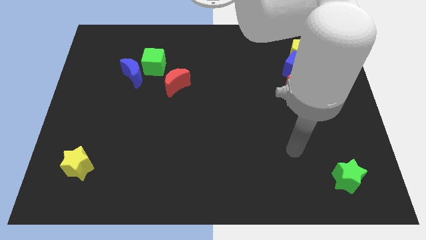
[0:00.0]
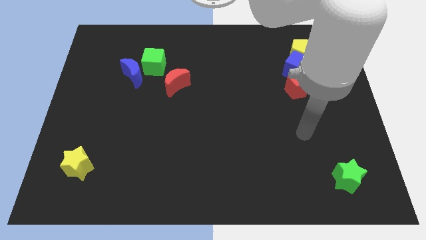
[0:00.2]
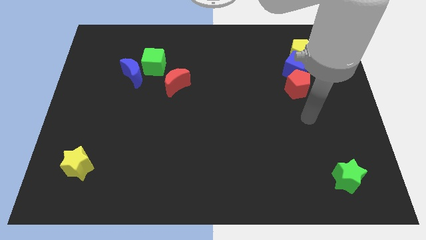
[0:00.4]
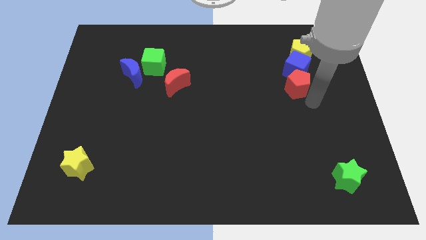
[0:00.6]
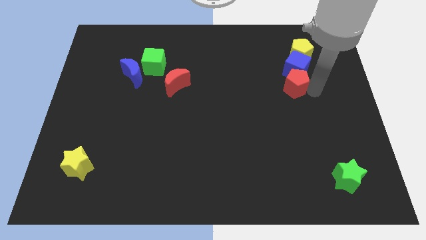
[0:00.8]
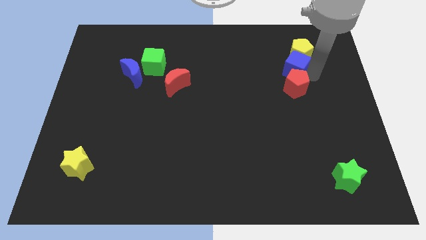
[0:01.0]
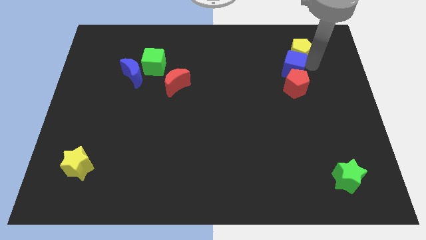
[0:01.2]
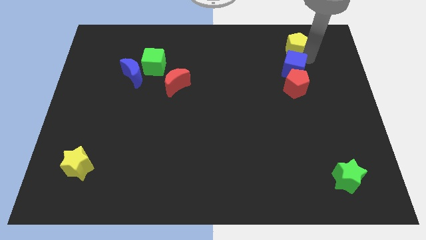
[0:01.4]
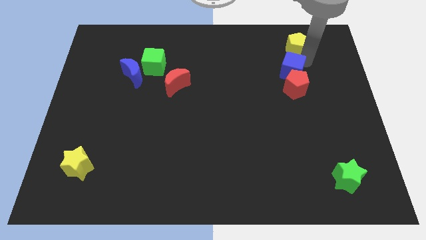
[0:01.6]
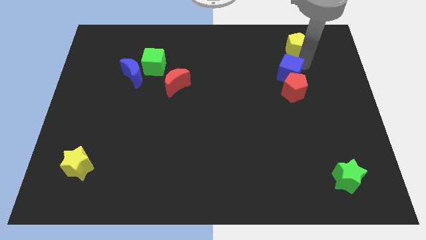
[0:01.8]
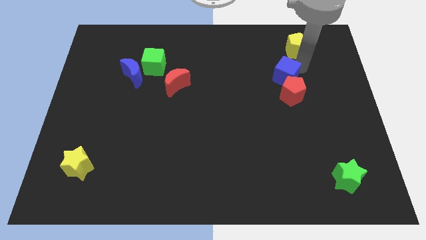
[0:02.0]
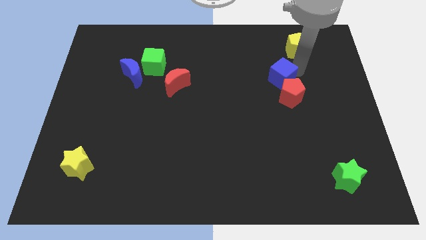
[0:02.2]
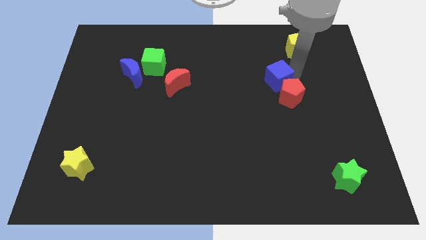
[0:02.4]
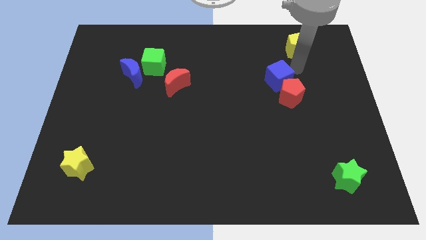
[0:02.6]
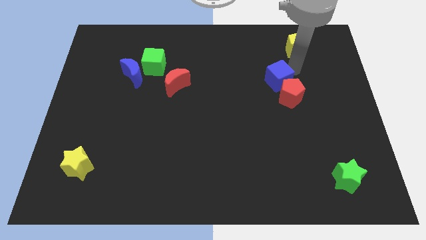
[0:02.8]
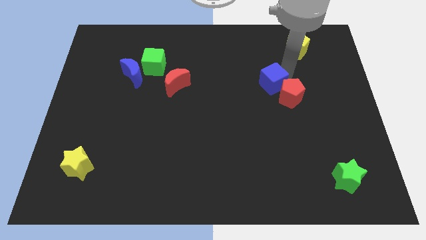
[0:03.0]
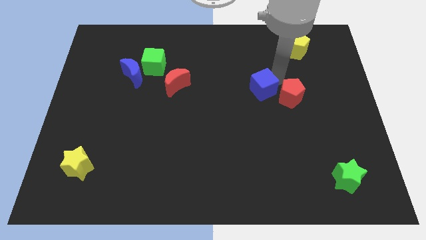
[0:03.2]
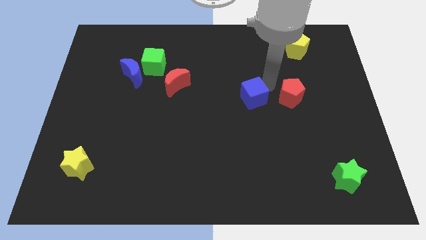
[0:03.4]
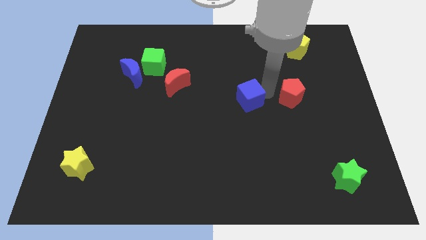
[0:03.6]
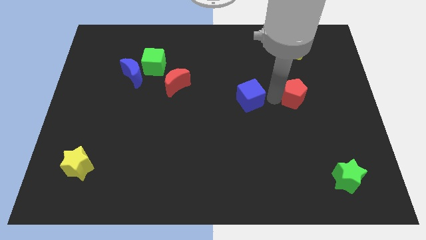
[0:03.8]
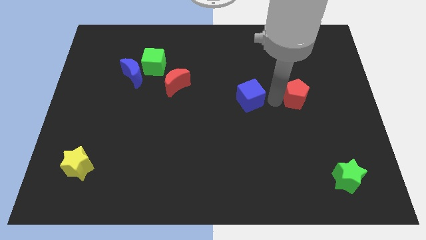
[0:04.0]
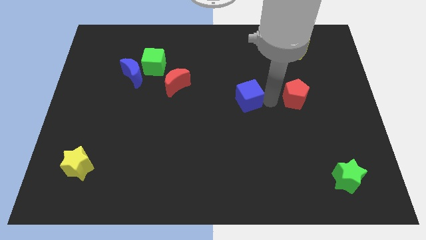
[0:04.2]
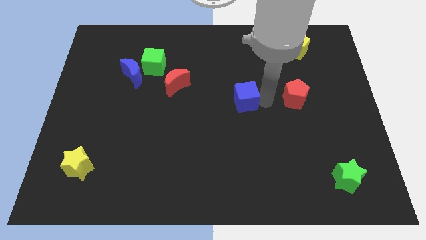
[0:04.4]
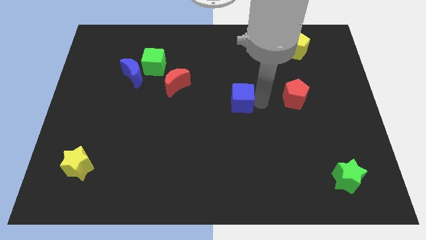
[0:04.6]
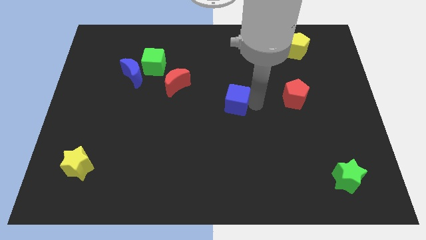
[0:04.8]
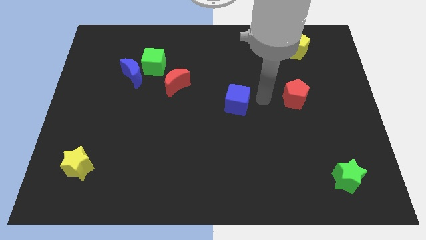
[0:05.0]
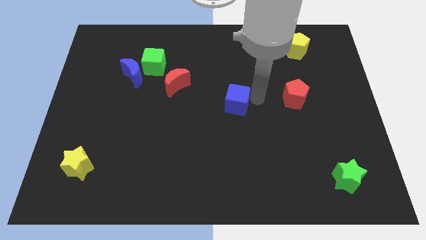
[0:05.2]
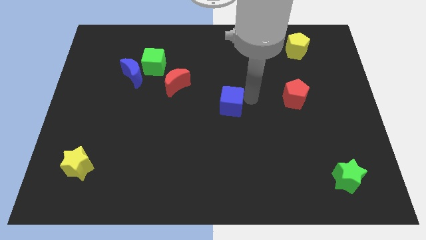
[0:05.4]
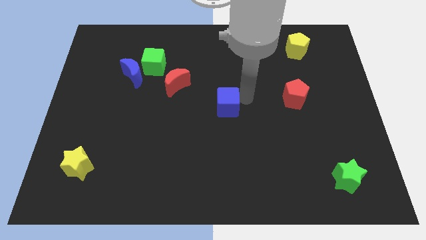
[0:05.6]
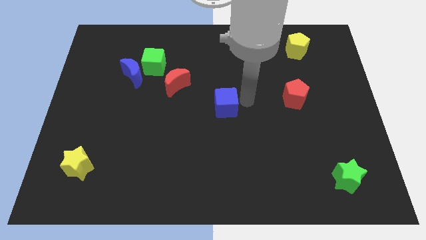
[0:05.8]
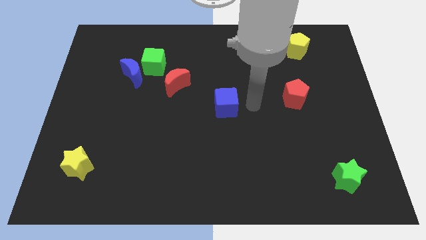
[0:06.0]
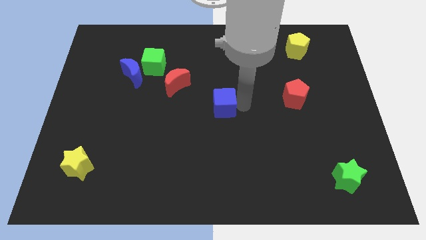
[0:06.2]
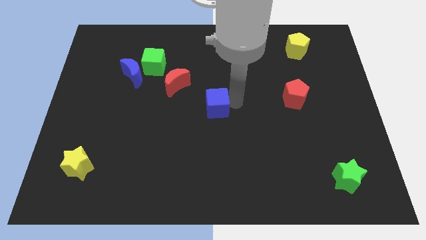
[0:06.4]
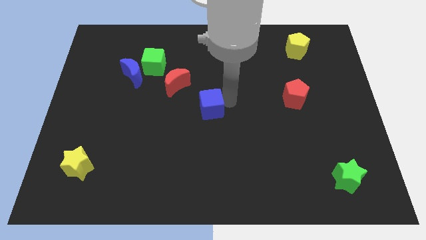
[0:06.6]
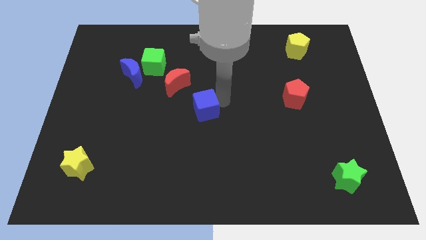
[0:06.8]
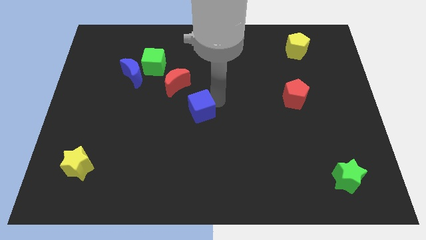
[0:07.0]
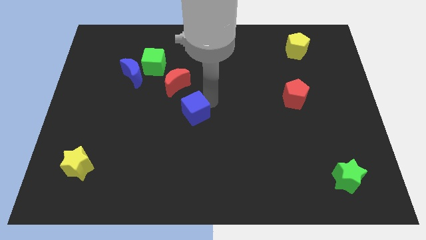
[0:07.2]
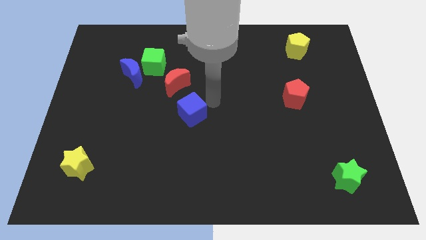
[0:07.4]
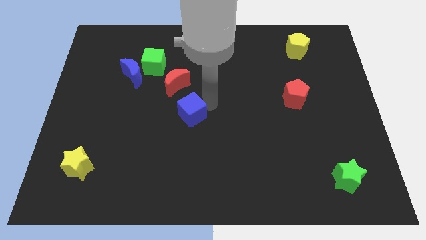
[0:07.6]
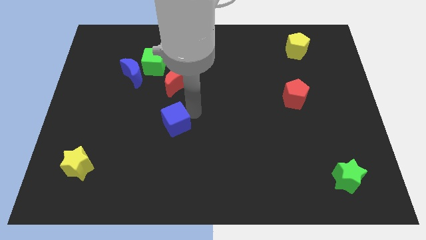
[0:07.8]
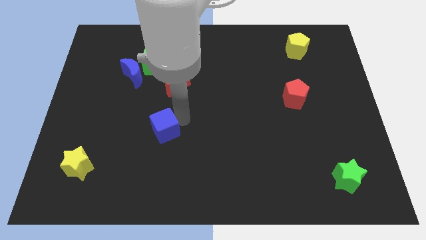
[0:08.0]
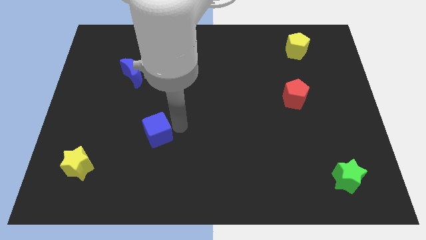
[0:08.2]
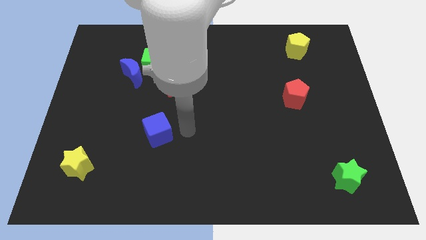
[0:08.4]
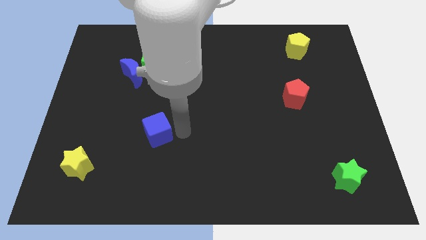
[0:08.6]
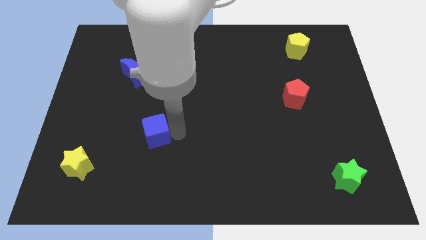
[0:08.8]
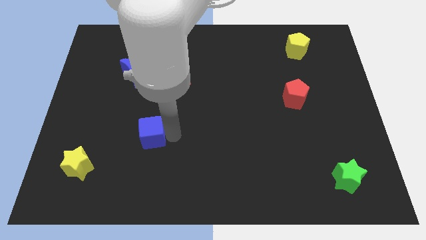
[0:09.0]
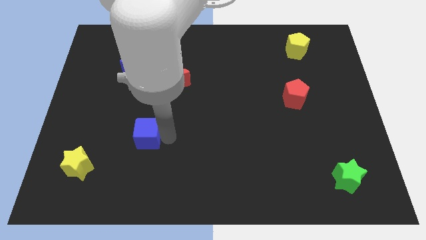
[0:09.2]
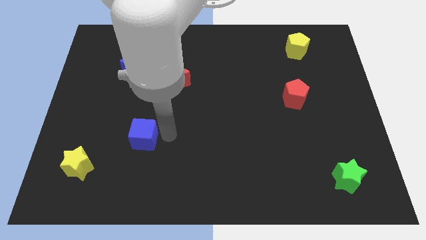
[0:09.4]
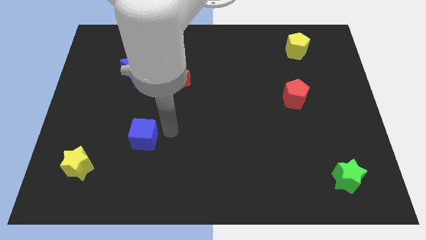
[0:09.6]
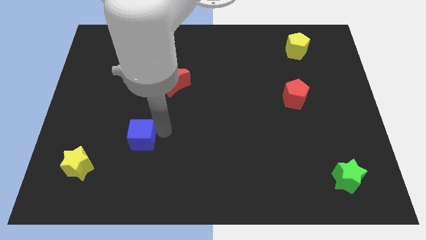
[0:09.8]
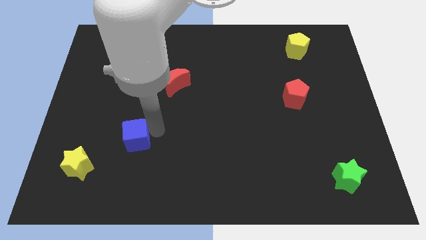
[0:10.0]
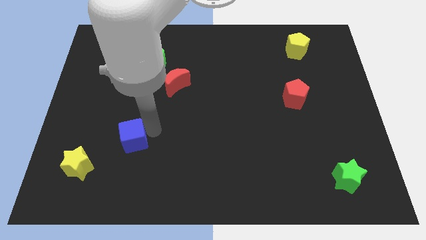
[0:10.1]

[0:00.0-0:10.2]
push the blue cube diagonally up and to the right of the yellow star

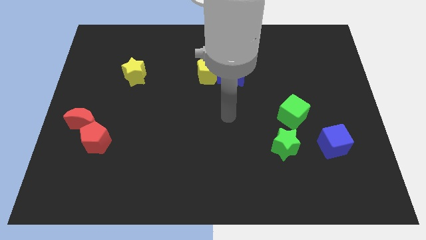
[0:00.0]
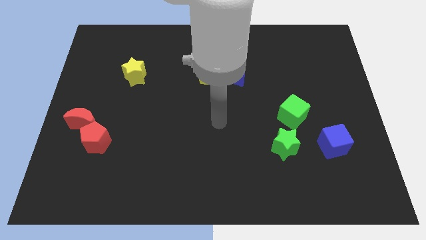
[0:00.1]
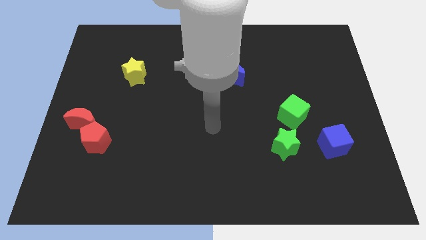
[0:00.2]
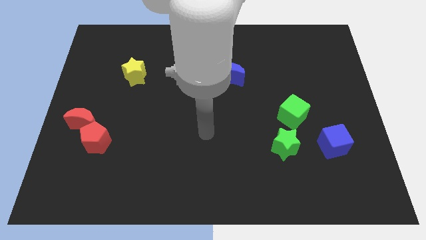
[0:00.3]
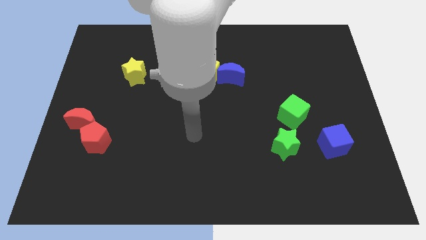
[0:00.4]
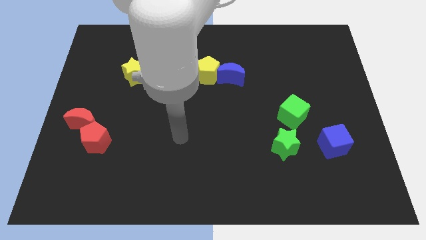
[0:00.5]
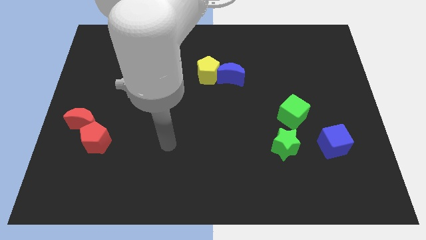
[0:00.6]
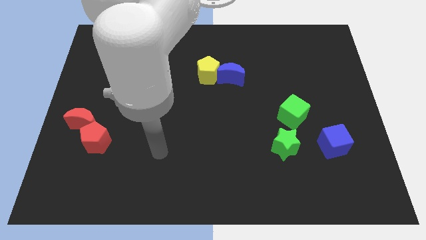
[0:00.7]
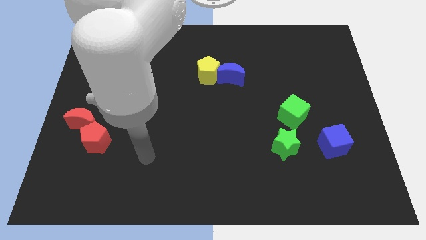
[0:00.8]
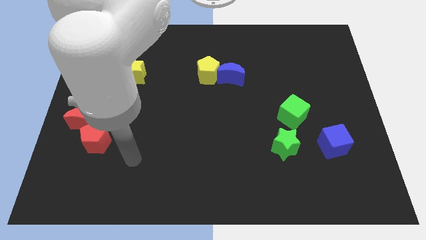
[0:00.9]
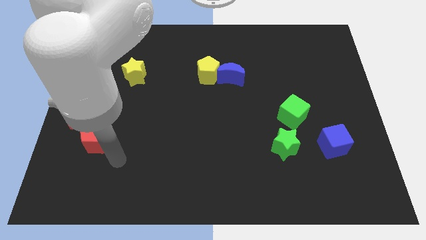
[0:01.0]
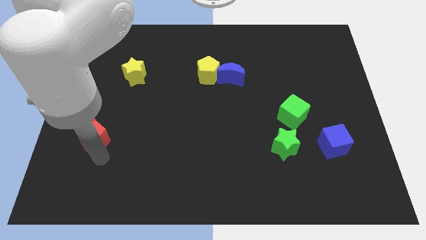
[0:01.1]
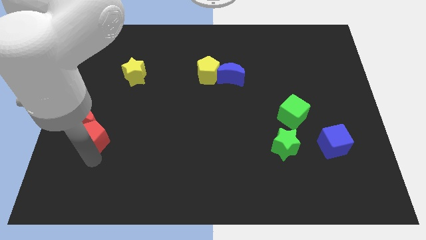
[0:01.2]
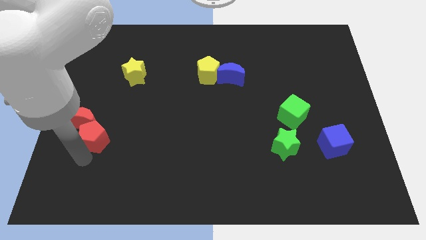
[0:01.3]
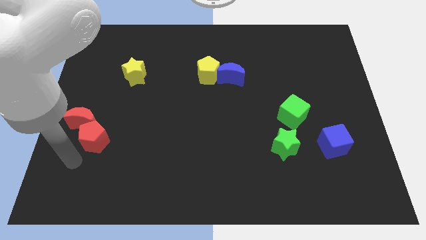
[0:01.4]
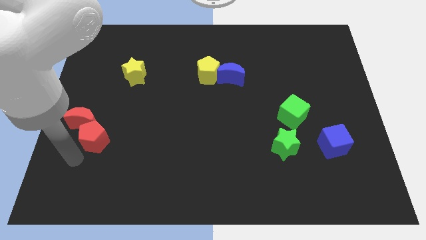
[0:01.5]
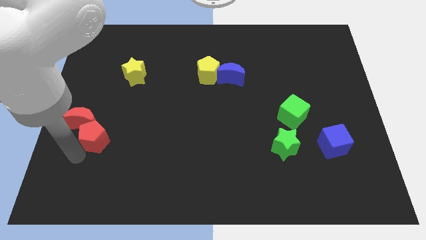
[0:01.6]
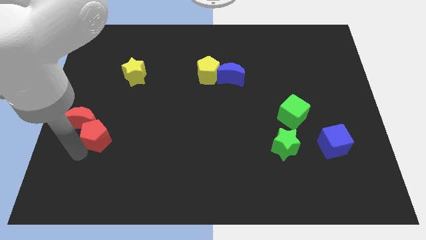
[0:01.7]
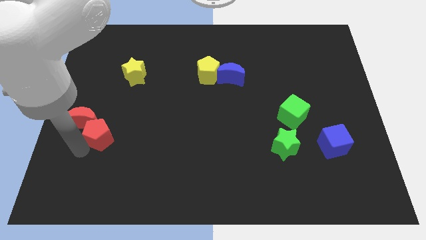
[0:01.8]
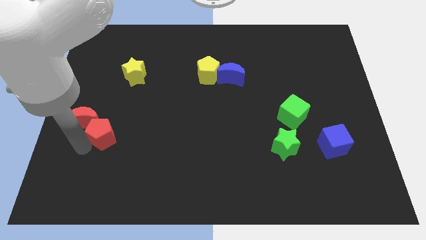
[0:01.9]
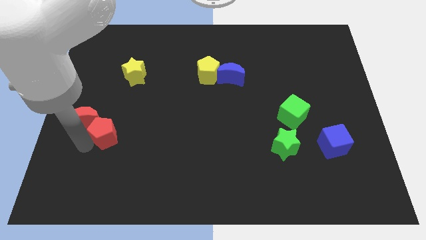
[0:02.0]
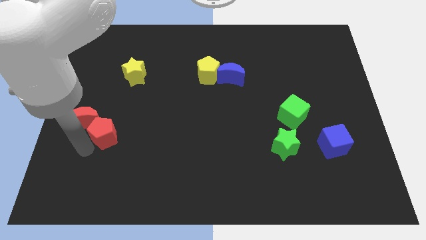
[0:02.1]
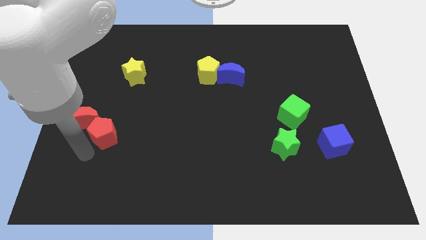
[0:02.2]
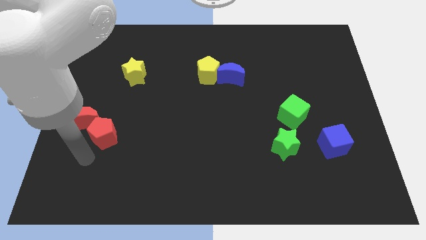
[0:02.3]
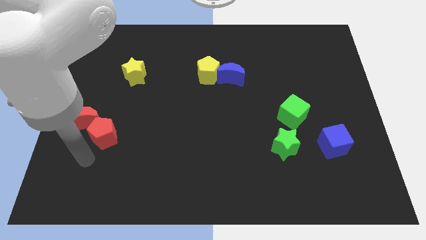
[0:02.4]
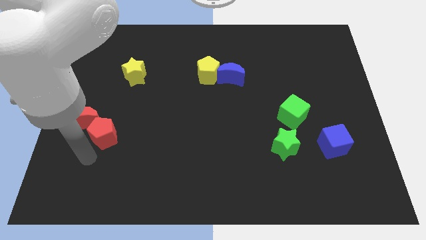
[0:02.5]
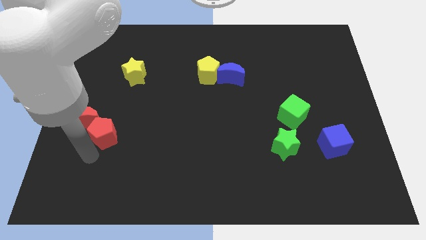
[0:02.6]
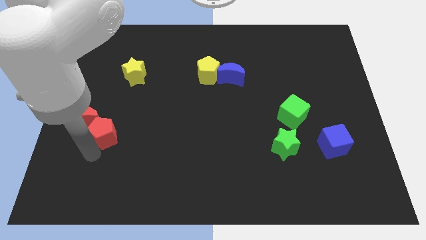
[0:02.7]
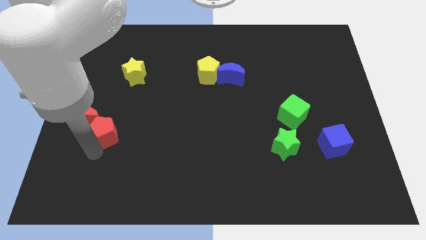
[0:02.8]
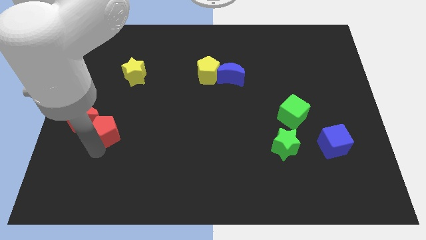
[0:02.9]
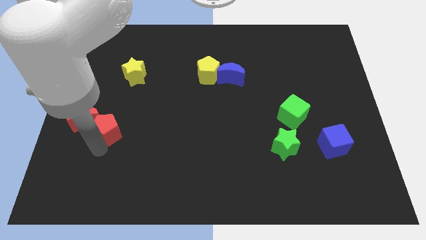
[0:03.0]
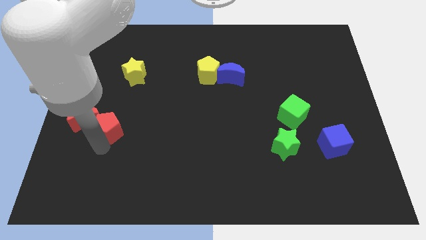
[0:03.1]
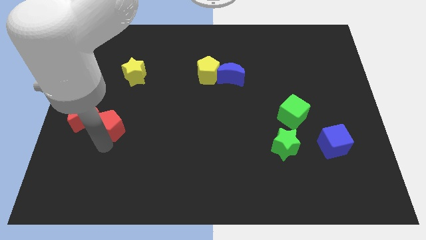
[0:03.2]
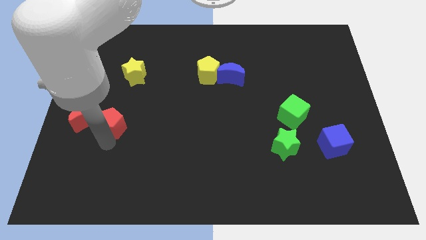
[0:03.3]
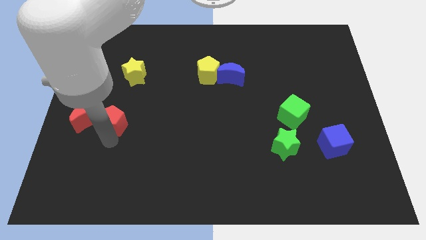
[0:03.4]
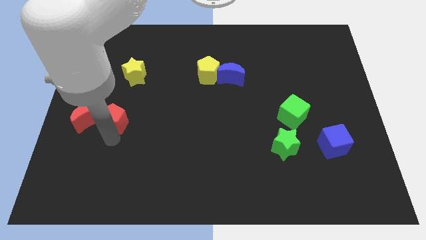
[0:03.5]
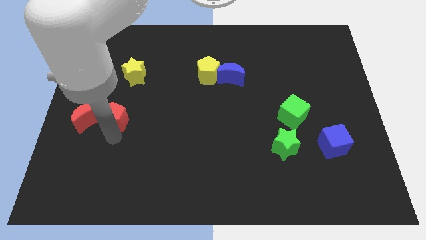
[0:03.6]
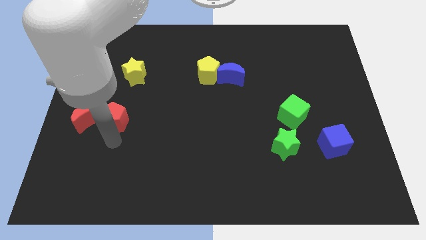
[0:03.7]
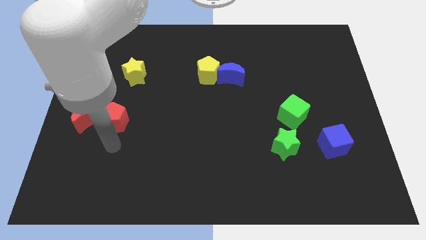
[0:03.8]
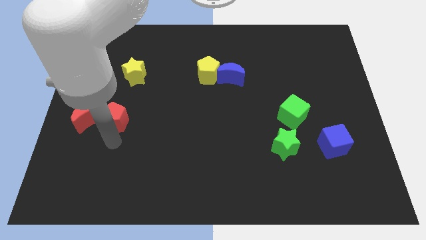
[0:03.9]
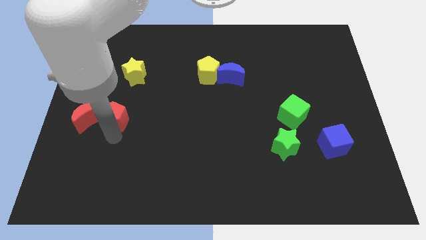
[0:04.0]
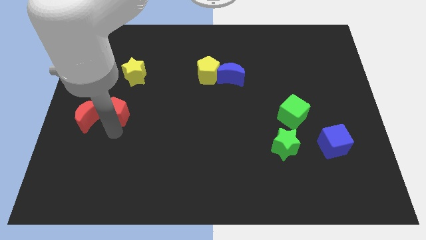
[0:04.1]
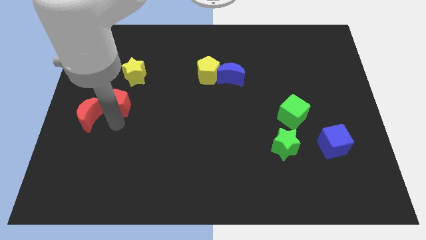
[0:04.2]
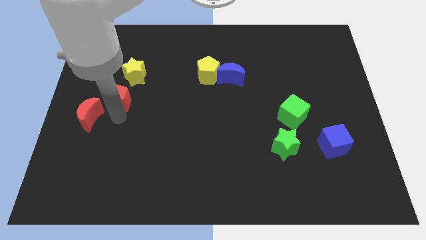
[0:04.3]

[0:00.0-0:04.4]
push the red pentagon to the bottom left of the yellow star
